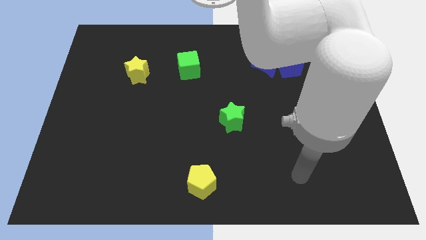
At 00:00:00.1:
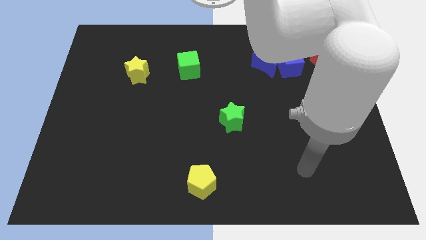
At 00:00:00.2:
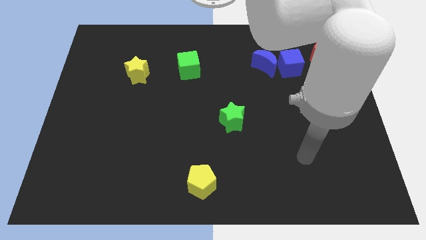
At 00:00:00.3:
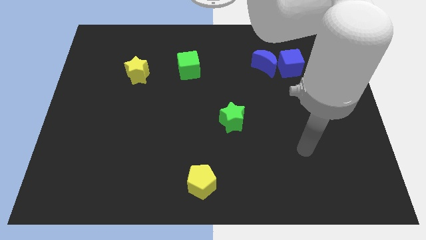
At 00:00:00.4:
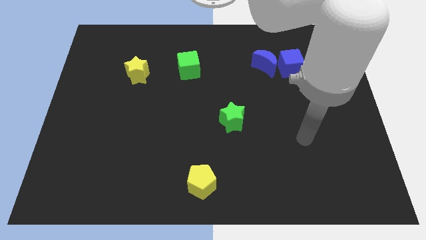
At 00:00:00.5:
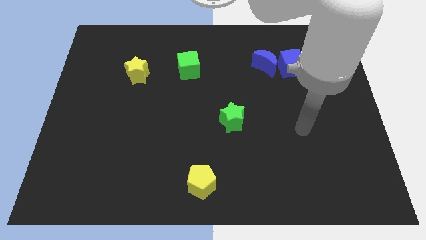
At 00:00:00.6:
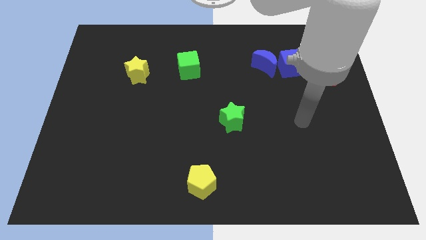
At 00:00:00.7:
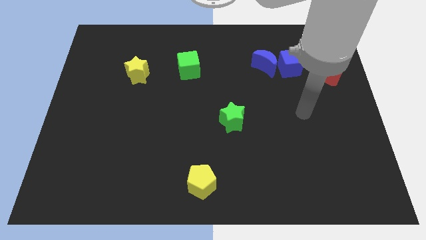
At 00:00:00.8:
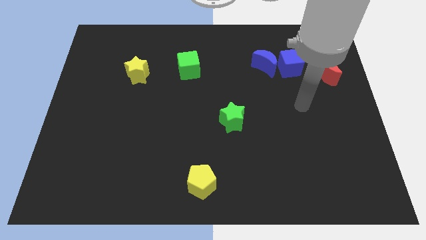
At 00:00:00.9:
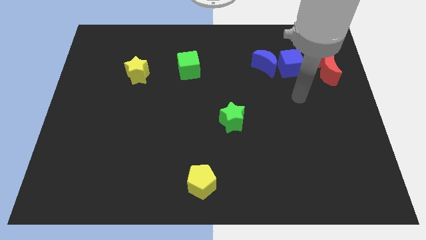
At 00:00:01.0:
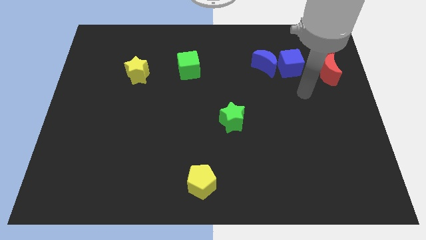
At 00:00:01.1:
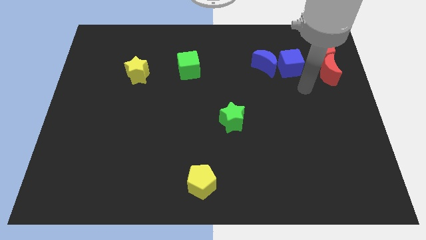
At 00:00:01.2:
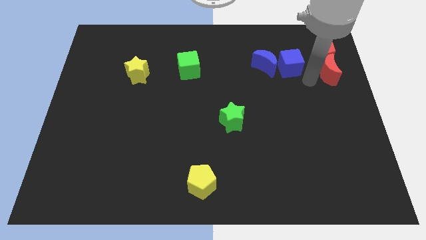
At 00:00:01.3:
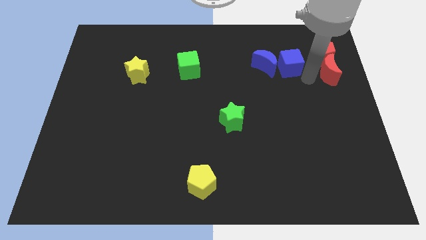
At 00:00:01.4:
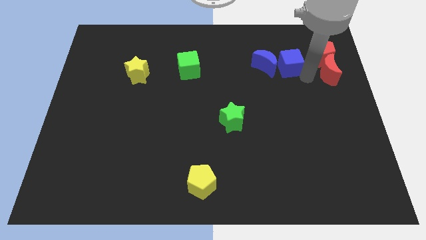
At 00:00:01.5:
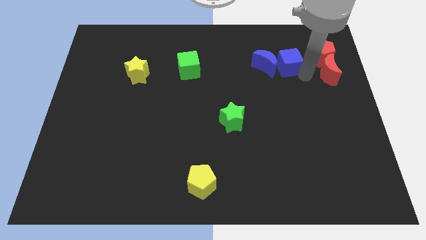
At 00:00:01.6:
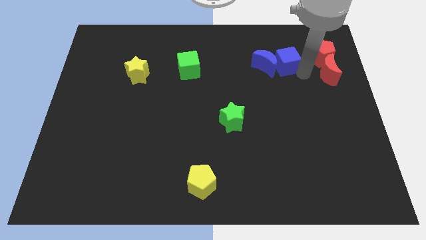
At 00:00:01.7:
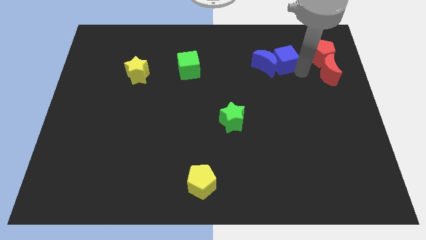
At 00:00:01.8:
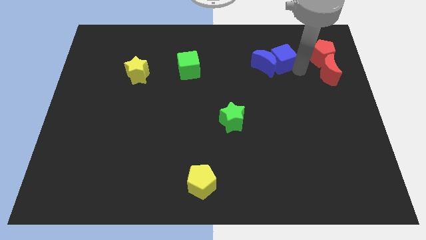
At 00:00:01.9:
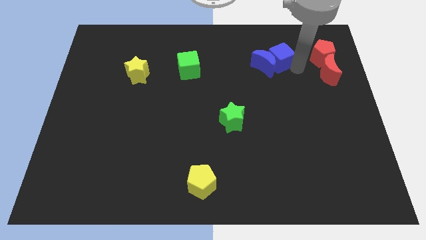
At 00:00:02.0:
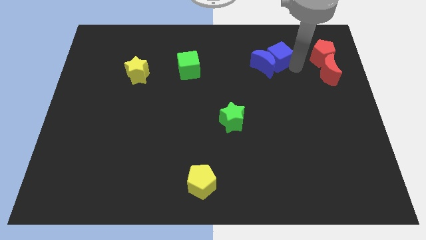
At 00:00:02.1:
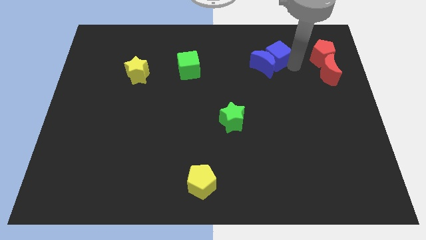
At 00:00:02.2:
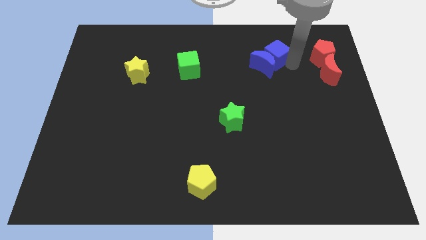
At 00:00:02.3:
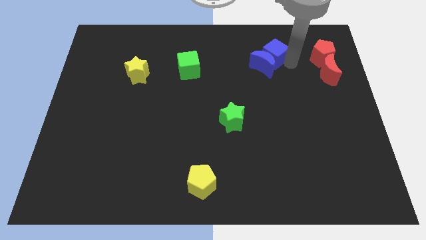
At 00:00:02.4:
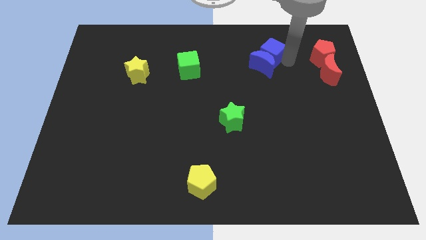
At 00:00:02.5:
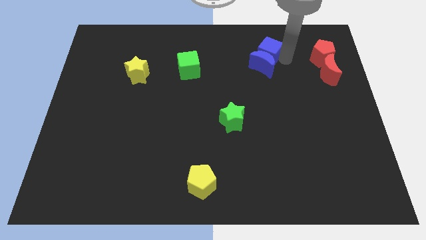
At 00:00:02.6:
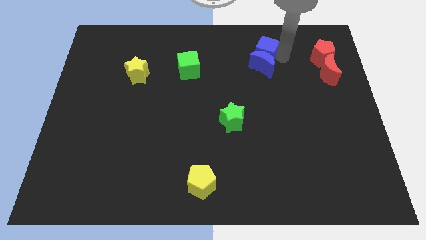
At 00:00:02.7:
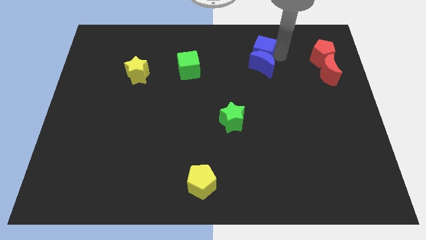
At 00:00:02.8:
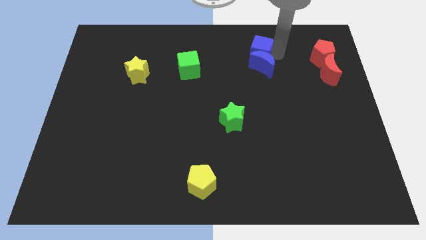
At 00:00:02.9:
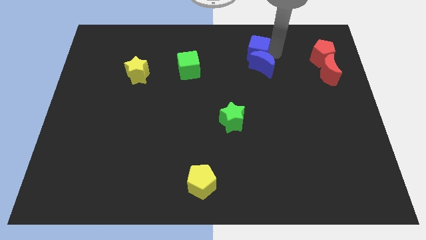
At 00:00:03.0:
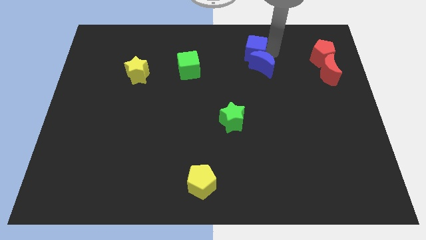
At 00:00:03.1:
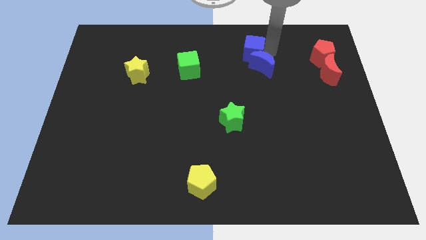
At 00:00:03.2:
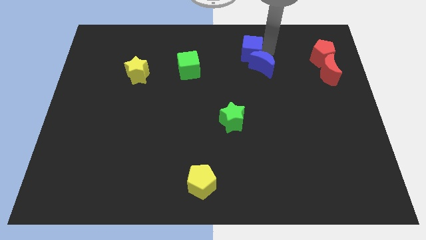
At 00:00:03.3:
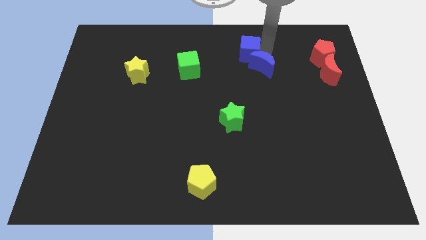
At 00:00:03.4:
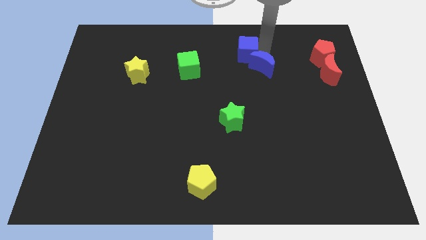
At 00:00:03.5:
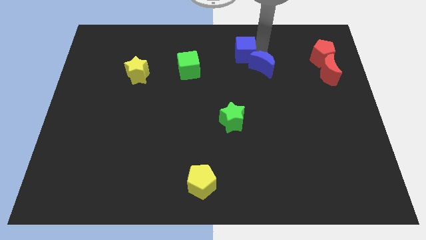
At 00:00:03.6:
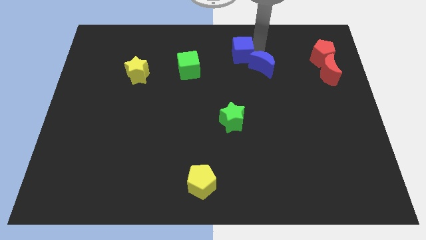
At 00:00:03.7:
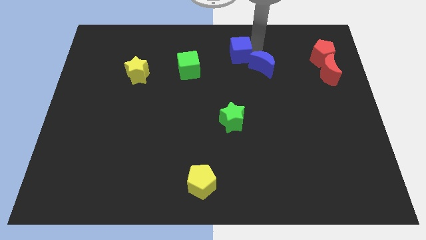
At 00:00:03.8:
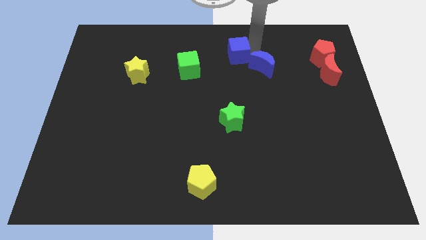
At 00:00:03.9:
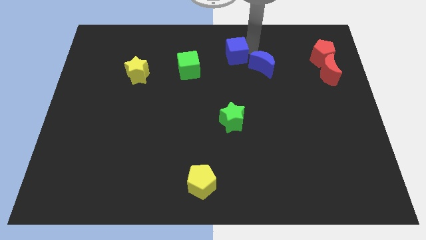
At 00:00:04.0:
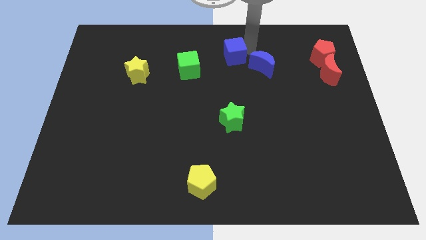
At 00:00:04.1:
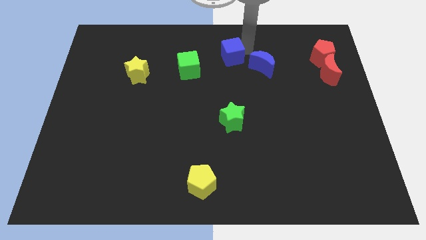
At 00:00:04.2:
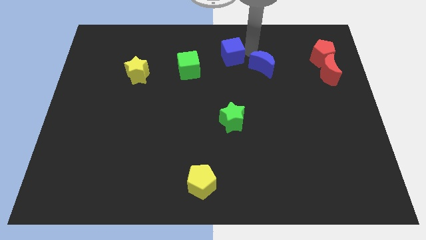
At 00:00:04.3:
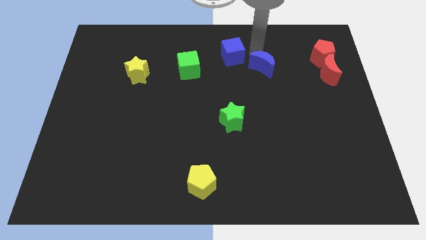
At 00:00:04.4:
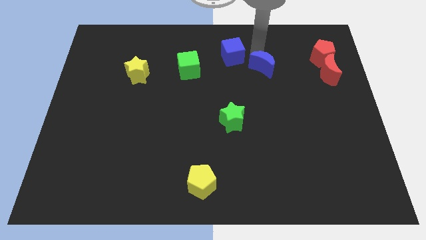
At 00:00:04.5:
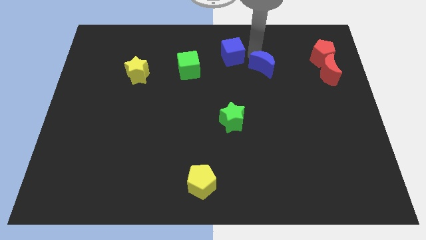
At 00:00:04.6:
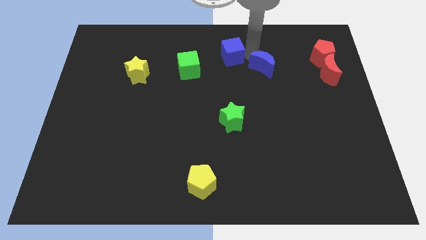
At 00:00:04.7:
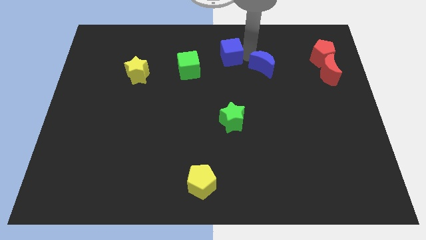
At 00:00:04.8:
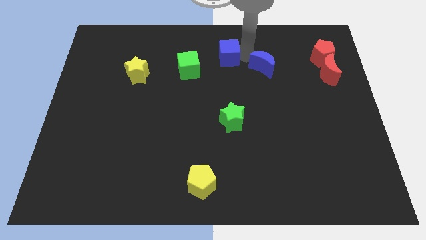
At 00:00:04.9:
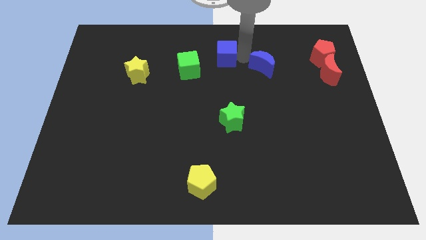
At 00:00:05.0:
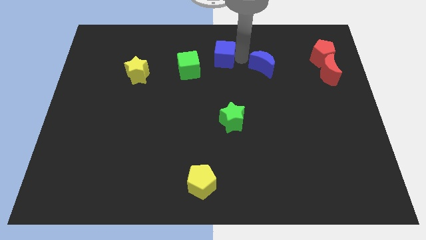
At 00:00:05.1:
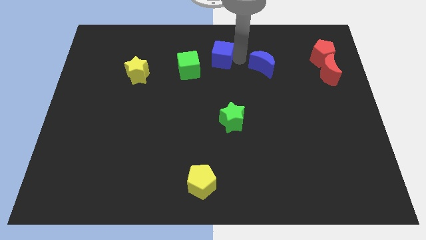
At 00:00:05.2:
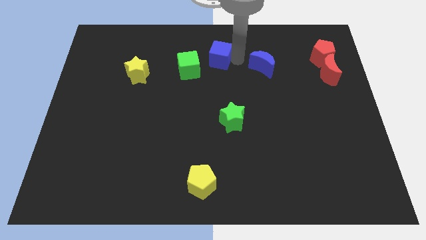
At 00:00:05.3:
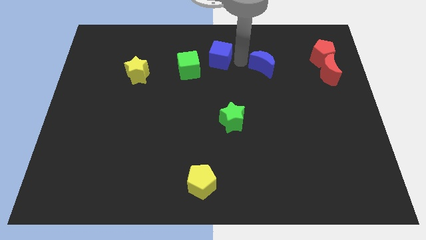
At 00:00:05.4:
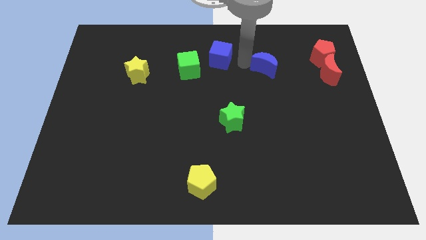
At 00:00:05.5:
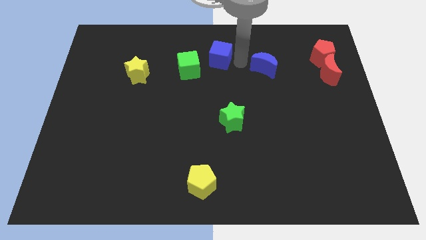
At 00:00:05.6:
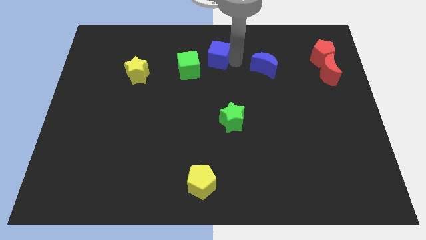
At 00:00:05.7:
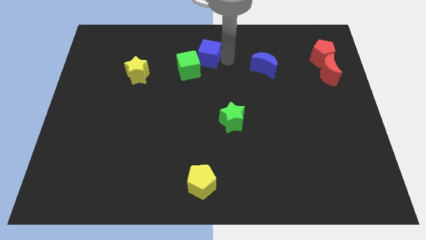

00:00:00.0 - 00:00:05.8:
slide the blue cube left

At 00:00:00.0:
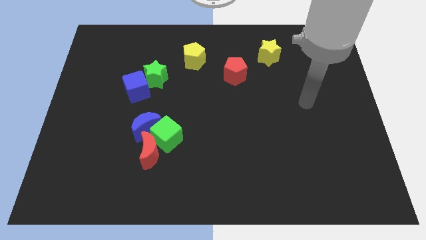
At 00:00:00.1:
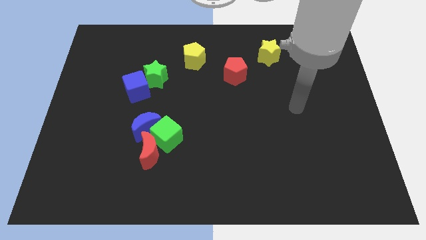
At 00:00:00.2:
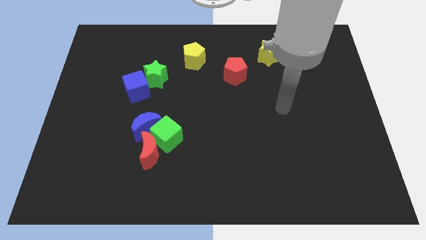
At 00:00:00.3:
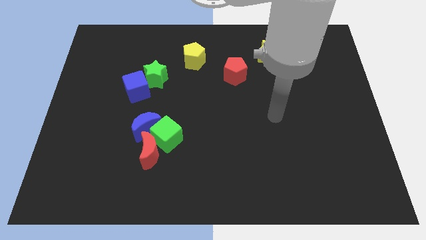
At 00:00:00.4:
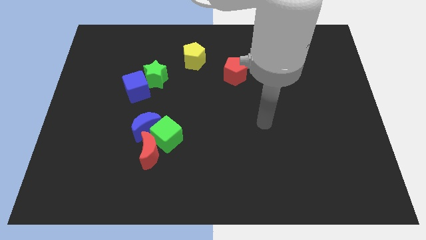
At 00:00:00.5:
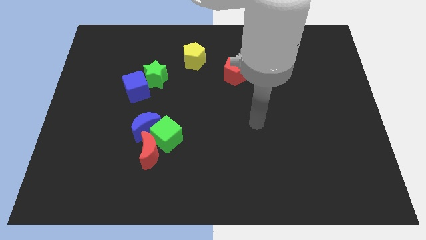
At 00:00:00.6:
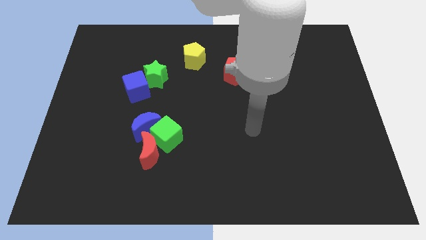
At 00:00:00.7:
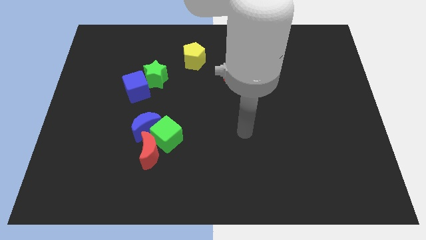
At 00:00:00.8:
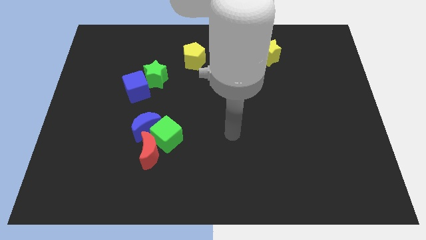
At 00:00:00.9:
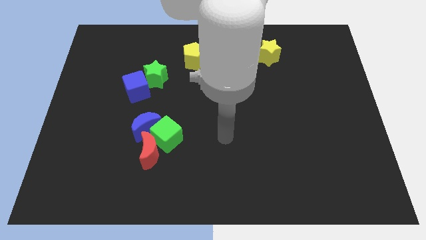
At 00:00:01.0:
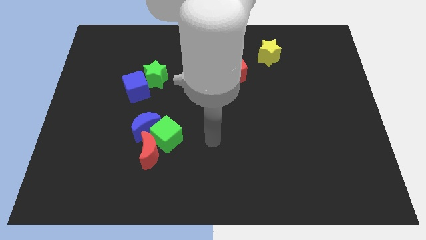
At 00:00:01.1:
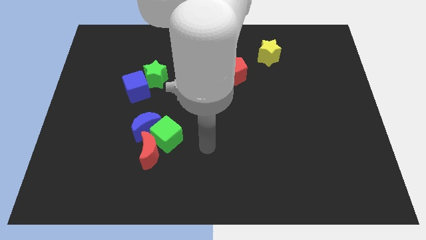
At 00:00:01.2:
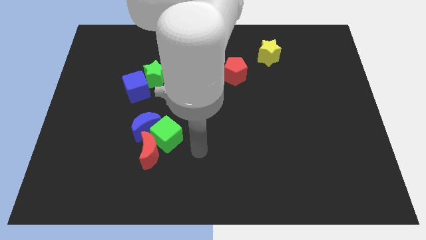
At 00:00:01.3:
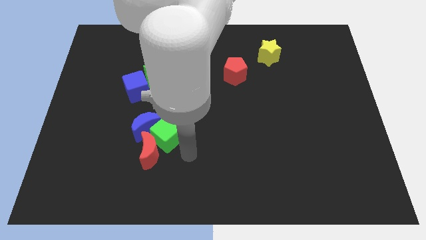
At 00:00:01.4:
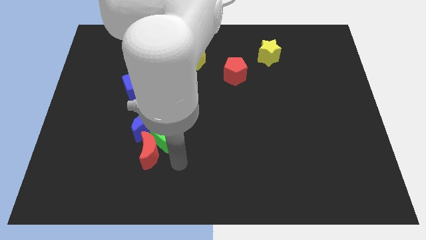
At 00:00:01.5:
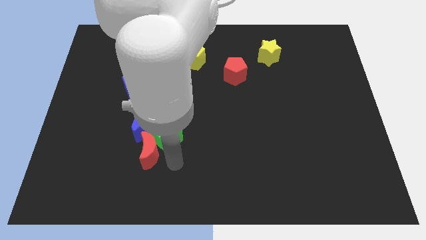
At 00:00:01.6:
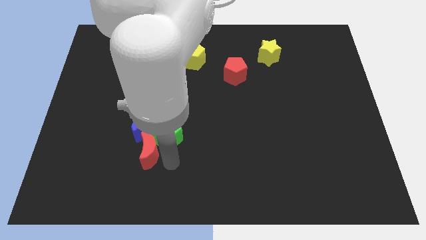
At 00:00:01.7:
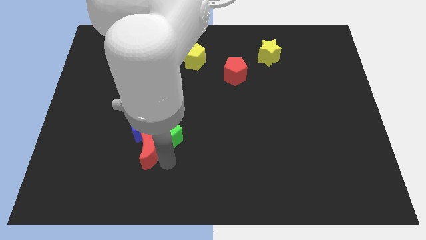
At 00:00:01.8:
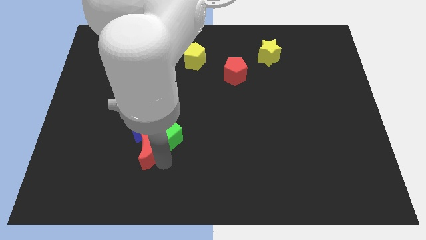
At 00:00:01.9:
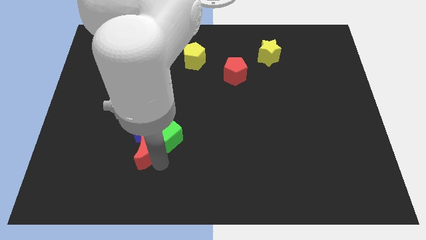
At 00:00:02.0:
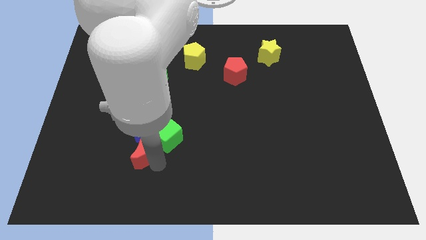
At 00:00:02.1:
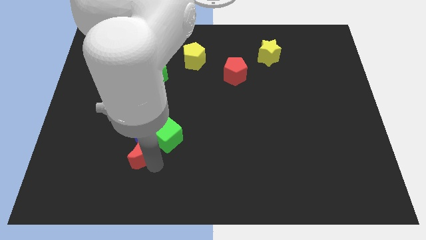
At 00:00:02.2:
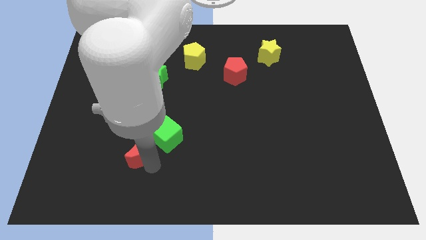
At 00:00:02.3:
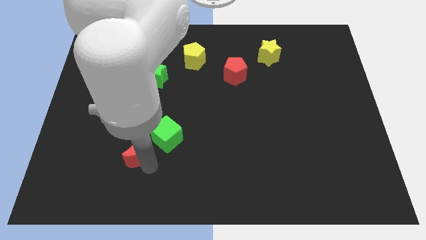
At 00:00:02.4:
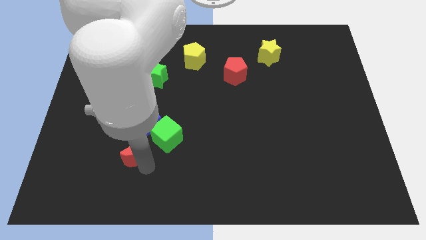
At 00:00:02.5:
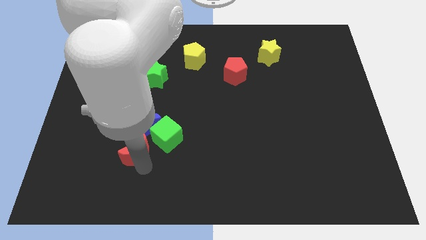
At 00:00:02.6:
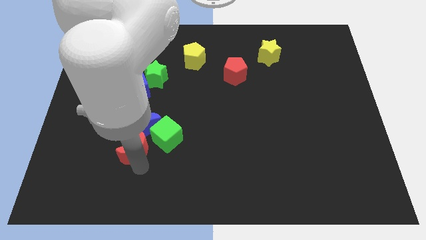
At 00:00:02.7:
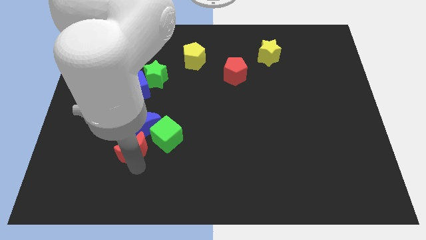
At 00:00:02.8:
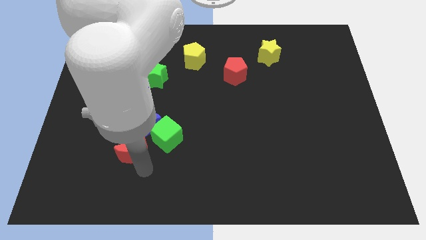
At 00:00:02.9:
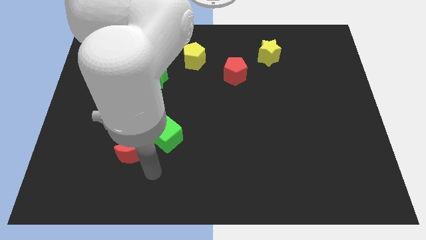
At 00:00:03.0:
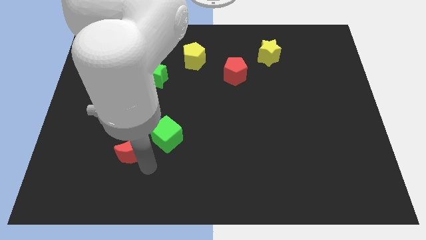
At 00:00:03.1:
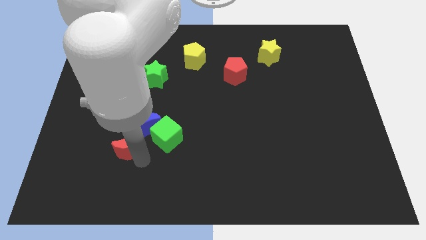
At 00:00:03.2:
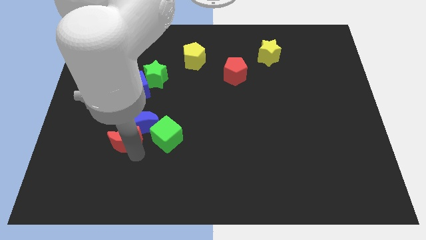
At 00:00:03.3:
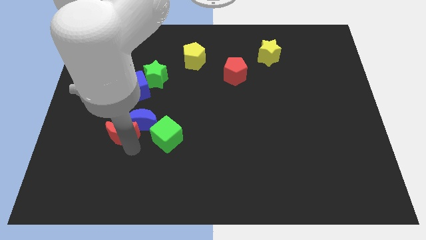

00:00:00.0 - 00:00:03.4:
slightly slide the red moon up and to the left
